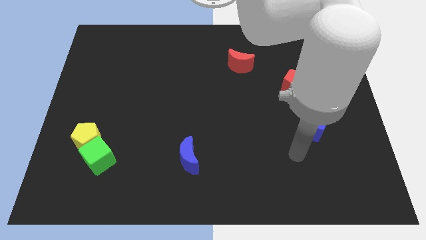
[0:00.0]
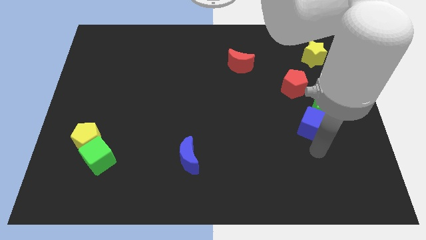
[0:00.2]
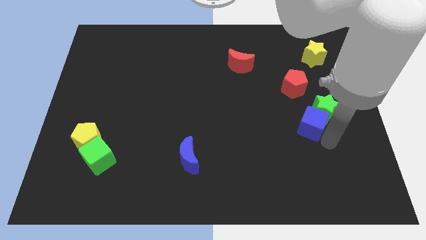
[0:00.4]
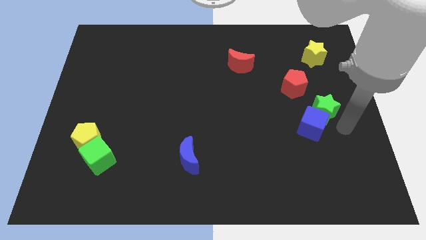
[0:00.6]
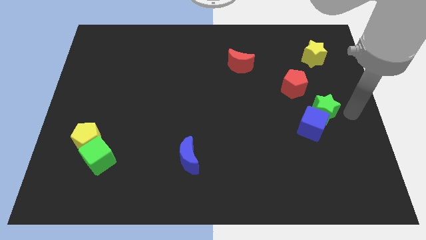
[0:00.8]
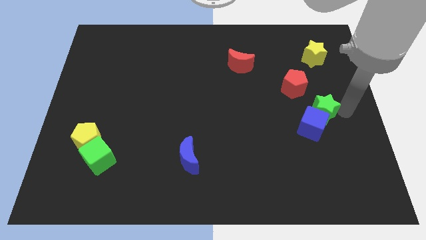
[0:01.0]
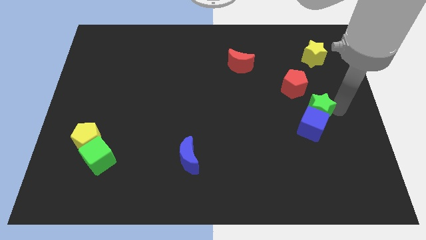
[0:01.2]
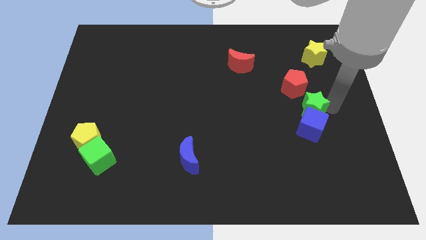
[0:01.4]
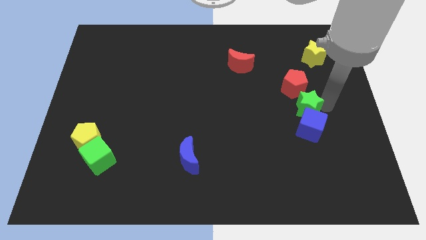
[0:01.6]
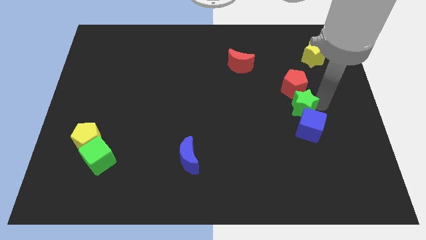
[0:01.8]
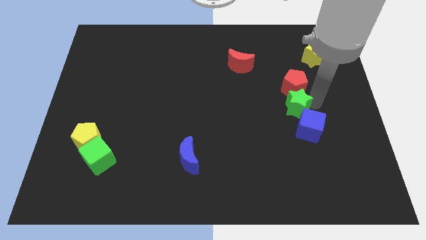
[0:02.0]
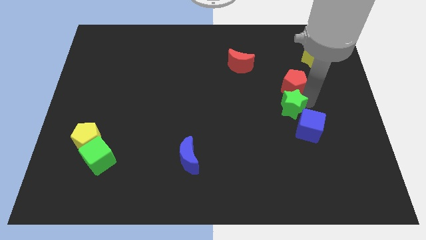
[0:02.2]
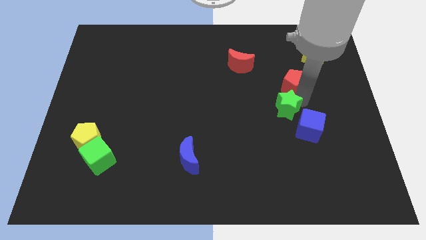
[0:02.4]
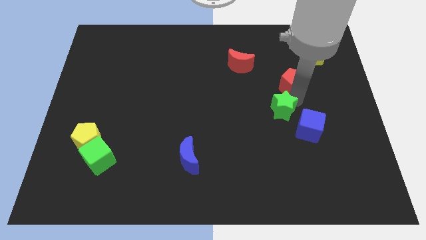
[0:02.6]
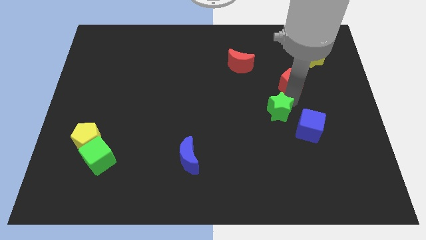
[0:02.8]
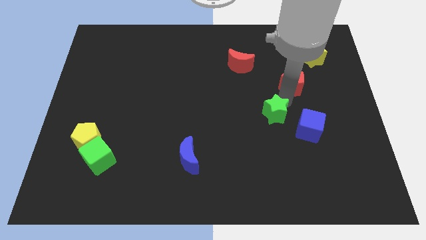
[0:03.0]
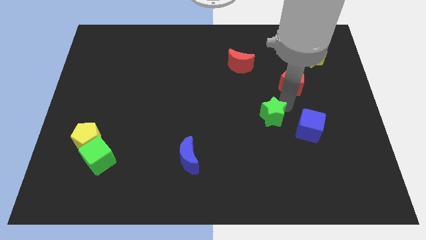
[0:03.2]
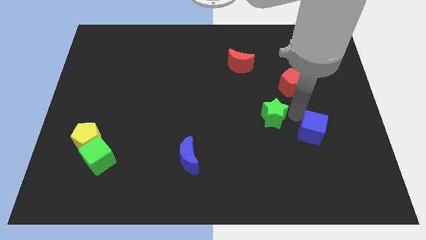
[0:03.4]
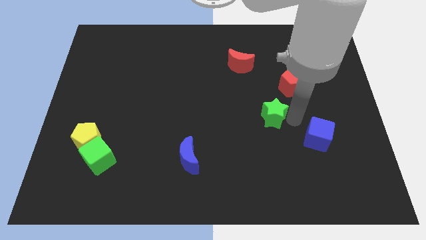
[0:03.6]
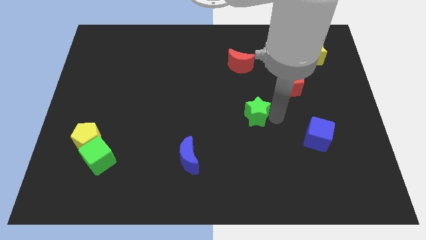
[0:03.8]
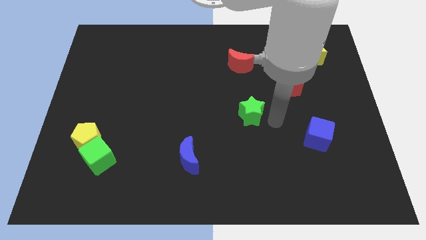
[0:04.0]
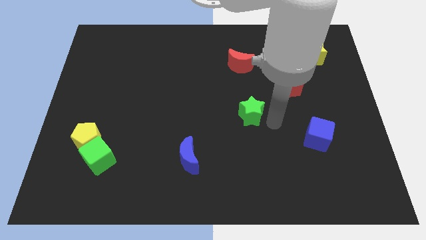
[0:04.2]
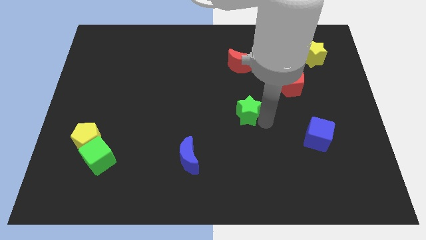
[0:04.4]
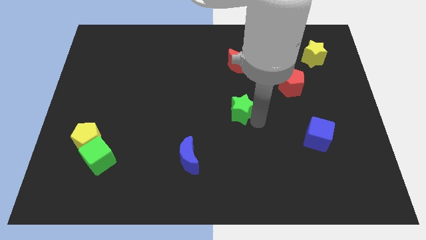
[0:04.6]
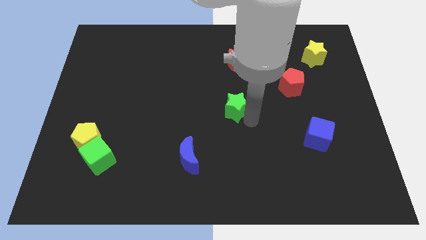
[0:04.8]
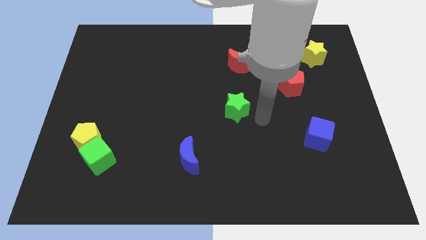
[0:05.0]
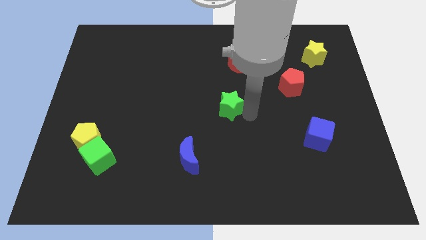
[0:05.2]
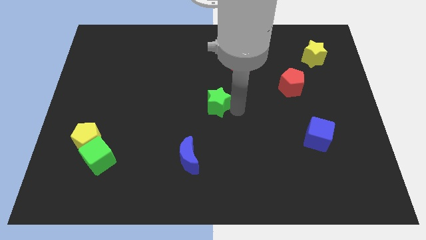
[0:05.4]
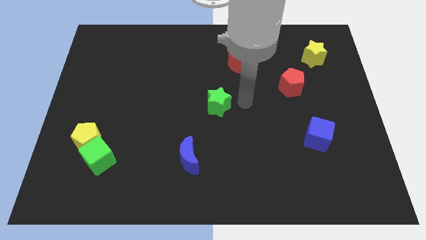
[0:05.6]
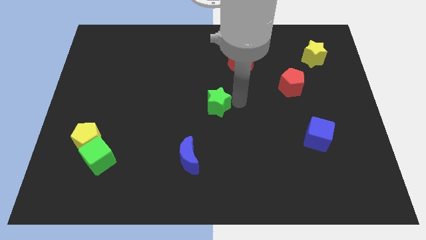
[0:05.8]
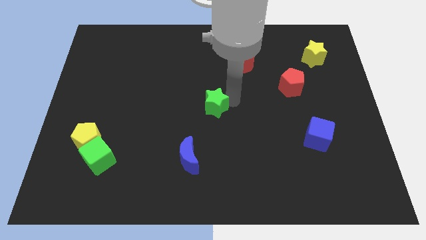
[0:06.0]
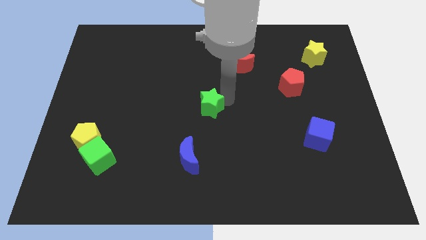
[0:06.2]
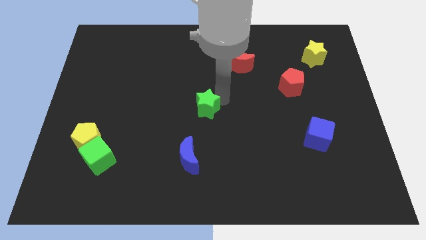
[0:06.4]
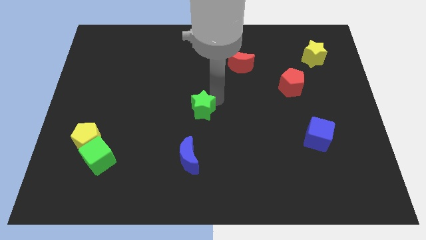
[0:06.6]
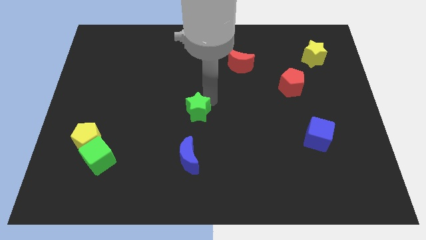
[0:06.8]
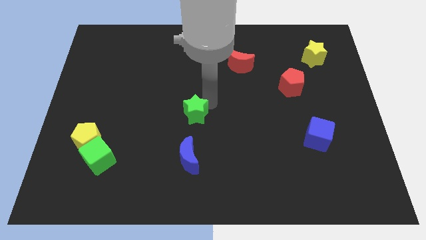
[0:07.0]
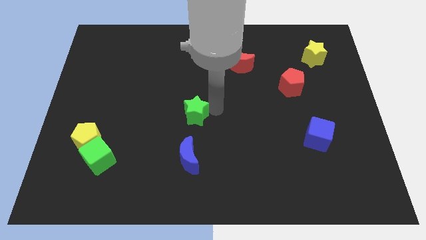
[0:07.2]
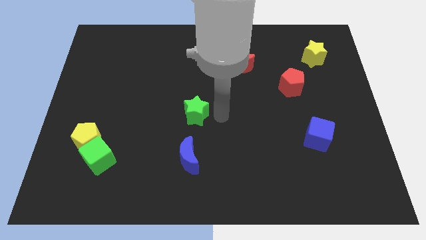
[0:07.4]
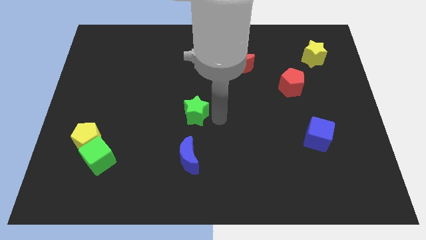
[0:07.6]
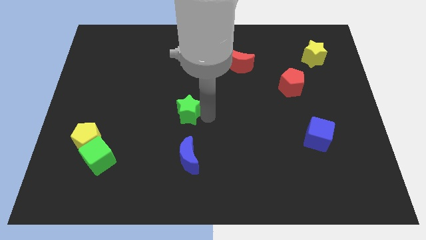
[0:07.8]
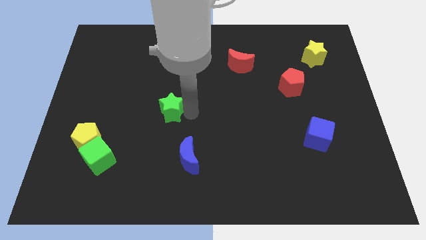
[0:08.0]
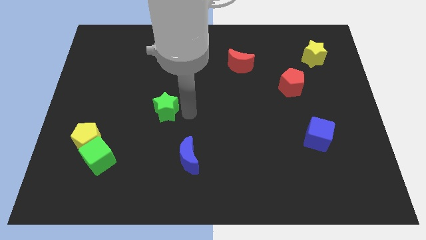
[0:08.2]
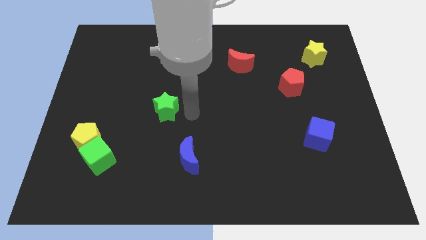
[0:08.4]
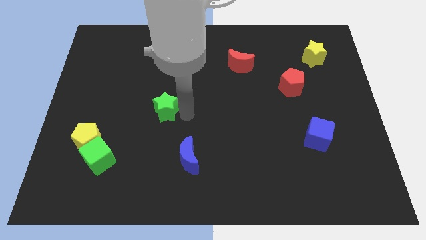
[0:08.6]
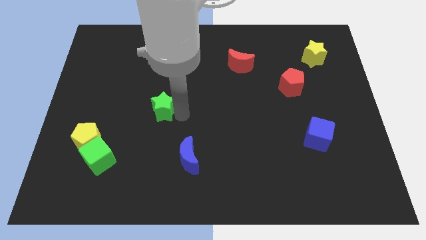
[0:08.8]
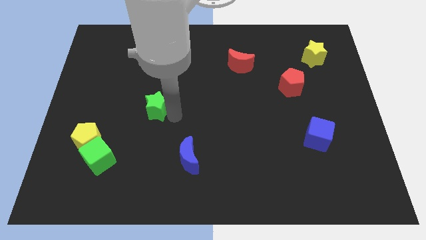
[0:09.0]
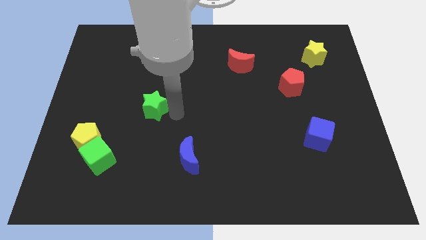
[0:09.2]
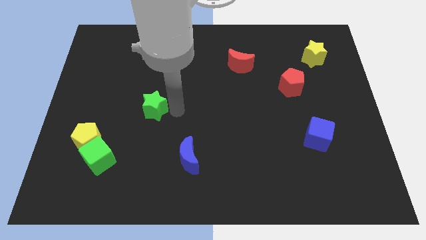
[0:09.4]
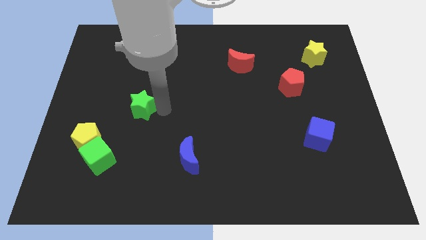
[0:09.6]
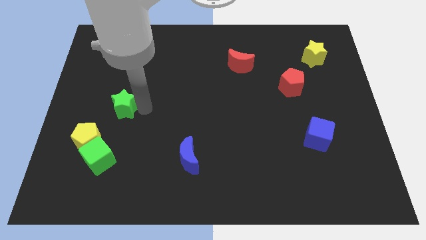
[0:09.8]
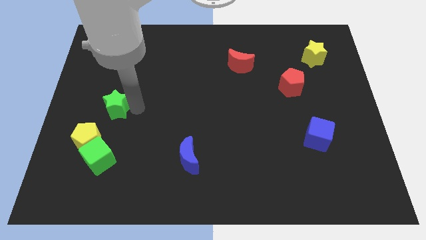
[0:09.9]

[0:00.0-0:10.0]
push the green star above the yellow pentagon

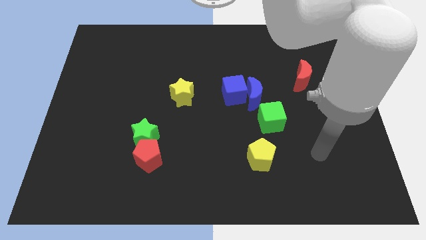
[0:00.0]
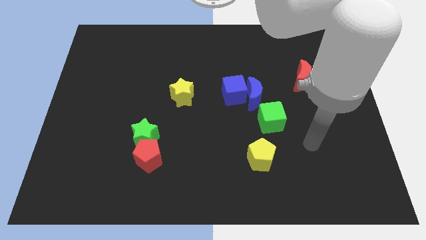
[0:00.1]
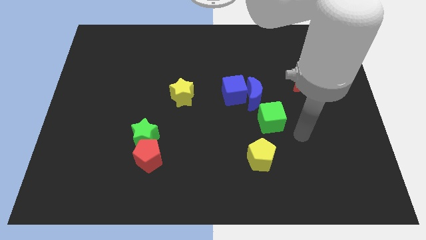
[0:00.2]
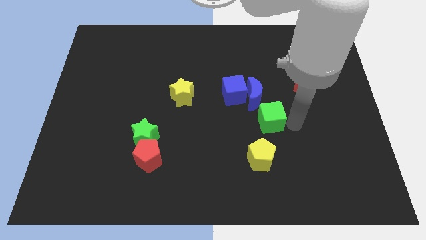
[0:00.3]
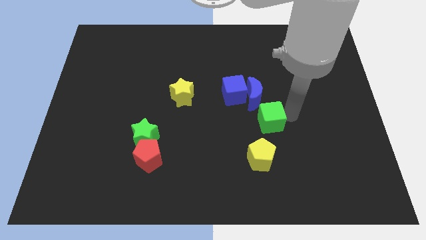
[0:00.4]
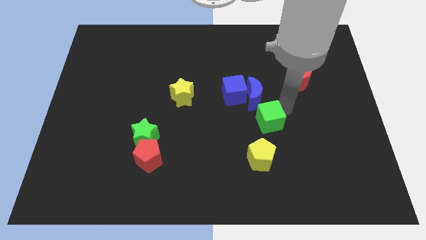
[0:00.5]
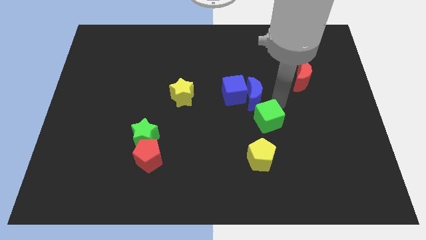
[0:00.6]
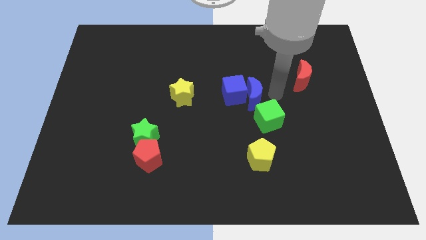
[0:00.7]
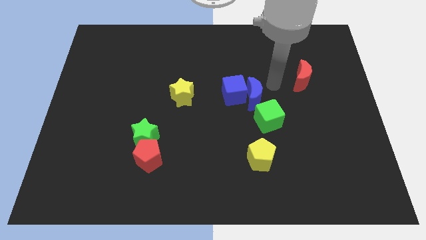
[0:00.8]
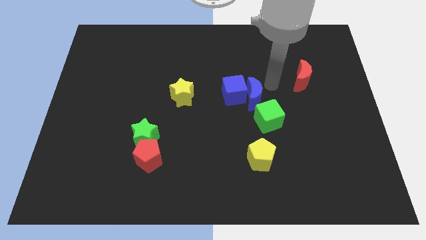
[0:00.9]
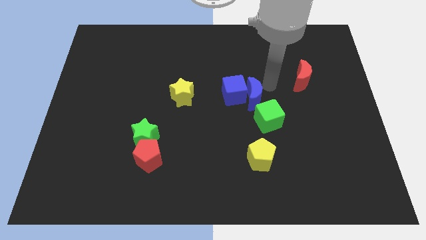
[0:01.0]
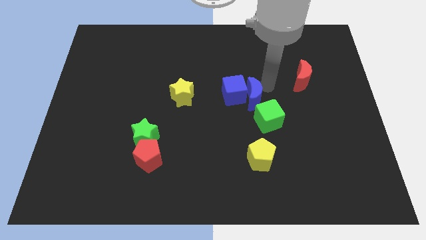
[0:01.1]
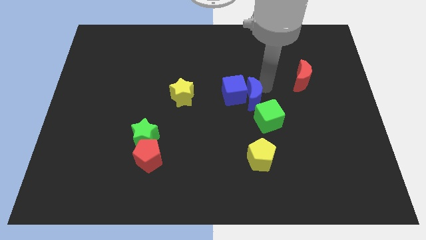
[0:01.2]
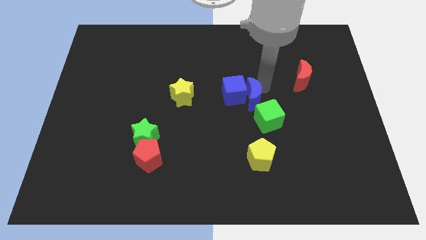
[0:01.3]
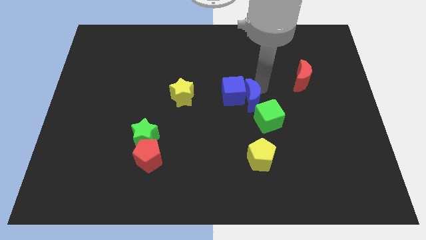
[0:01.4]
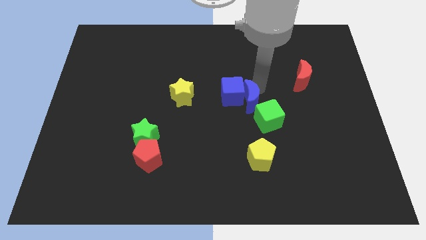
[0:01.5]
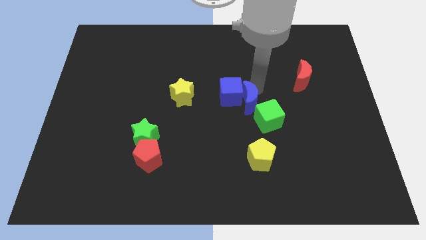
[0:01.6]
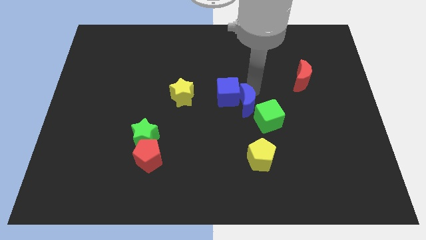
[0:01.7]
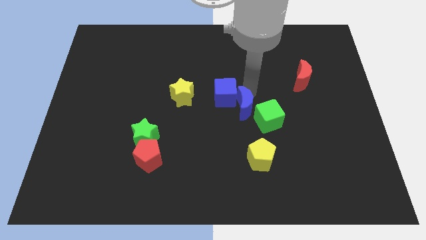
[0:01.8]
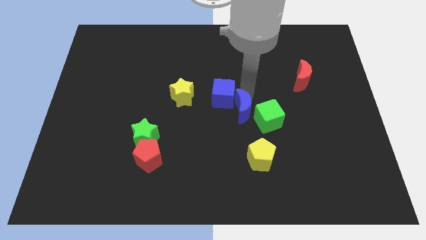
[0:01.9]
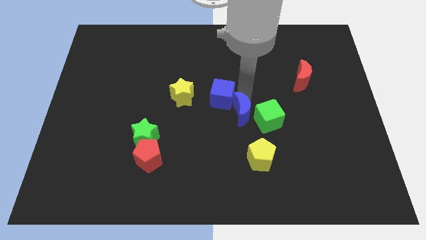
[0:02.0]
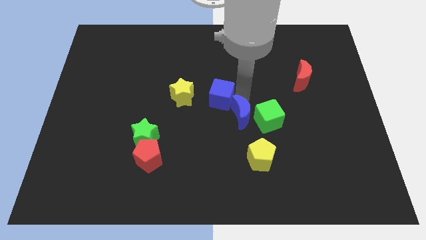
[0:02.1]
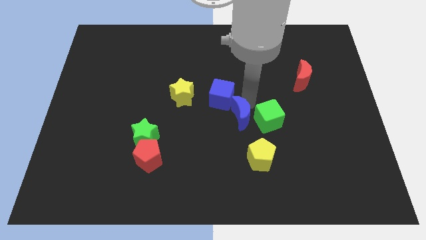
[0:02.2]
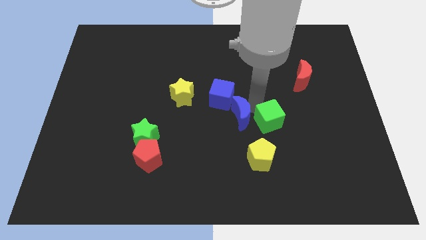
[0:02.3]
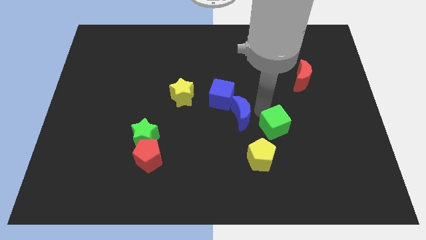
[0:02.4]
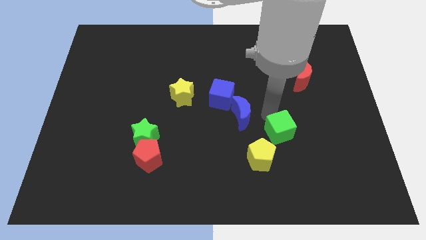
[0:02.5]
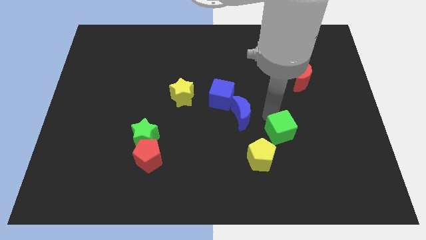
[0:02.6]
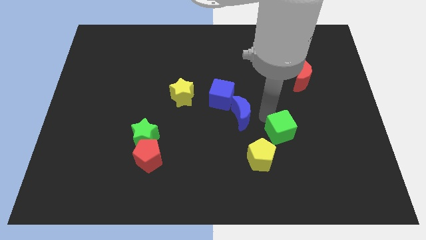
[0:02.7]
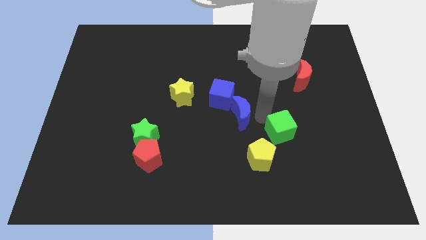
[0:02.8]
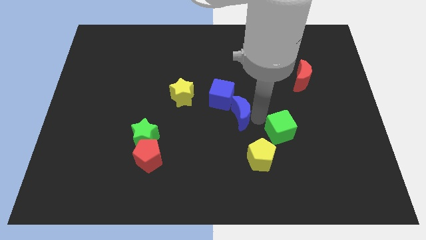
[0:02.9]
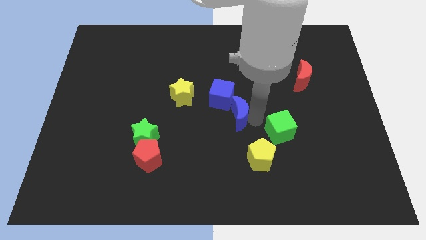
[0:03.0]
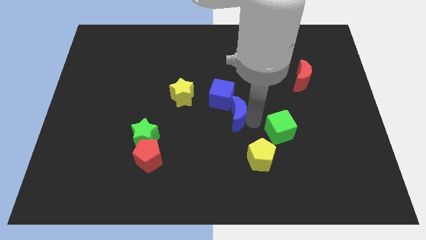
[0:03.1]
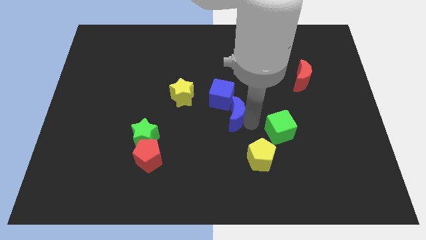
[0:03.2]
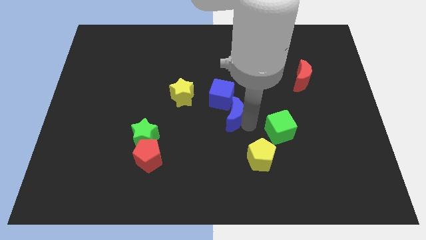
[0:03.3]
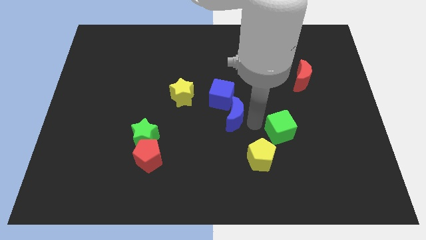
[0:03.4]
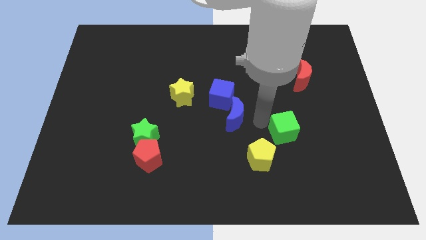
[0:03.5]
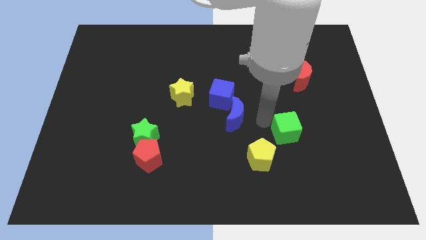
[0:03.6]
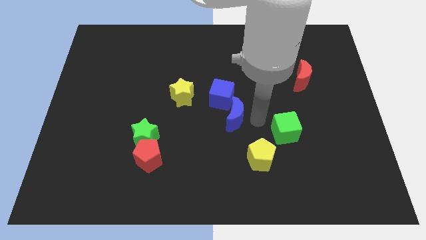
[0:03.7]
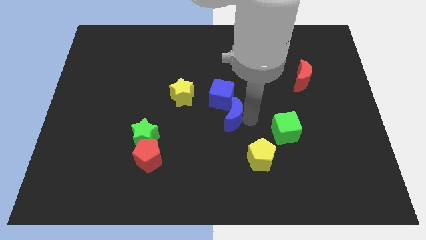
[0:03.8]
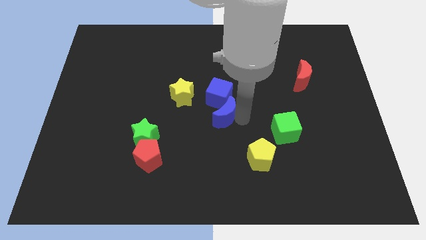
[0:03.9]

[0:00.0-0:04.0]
move the blue moon diagonally down and to the right of the yellow star
